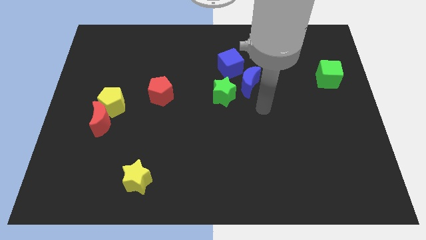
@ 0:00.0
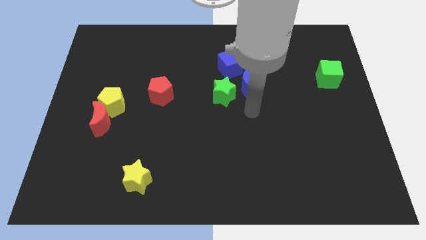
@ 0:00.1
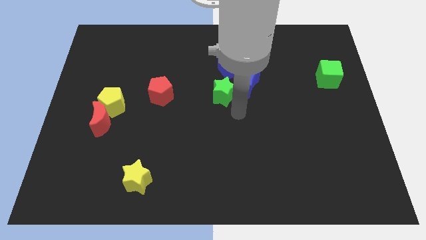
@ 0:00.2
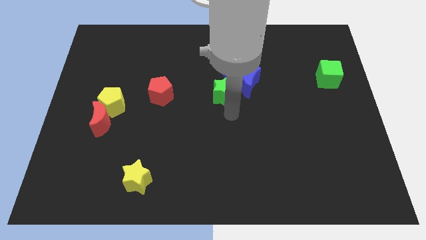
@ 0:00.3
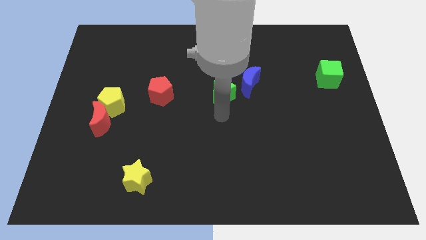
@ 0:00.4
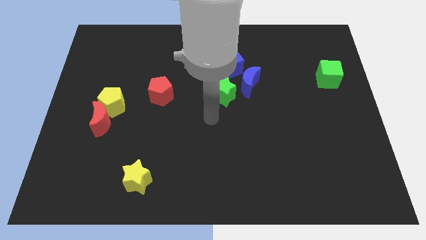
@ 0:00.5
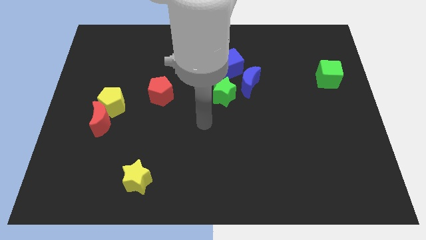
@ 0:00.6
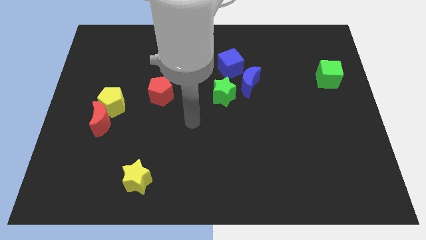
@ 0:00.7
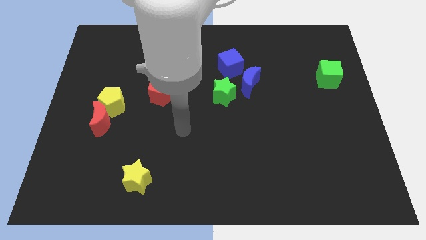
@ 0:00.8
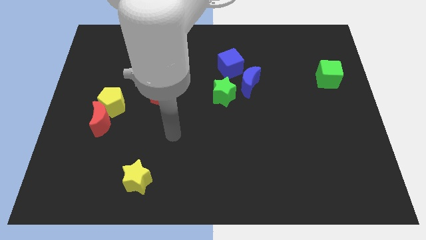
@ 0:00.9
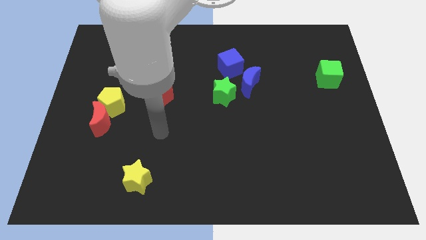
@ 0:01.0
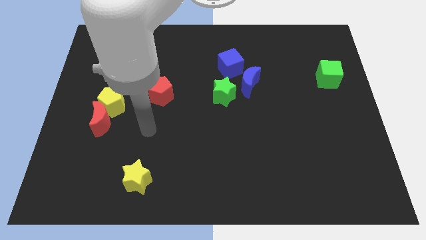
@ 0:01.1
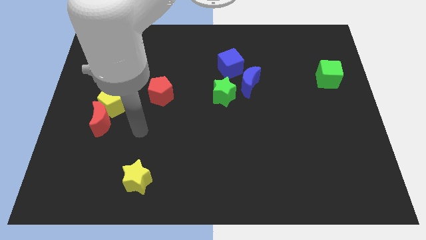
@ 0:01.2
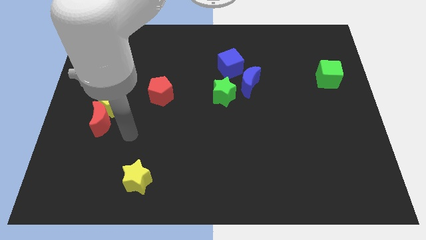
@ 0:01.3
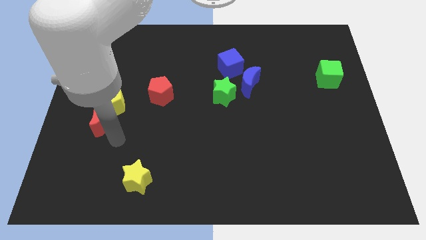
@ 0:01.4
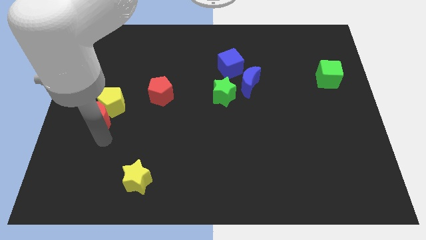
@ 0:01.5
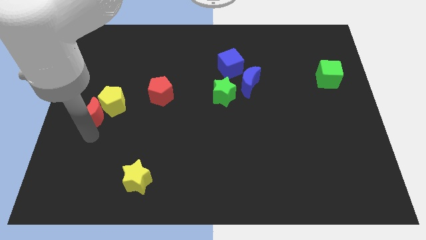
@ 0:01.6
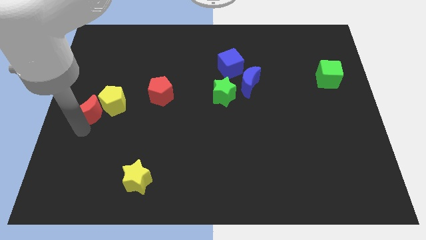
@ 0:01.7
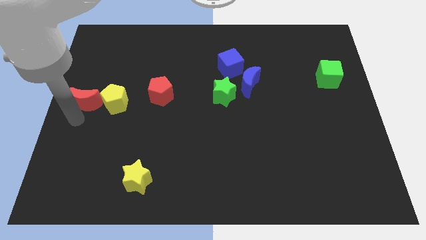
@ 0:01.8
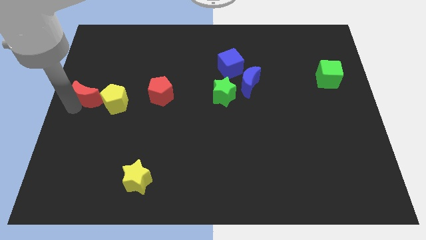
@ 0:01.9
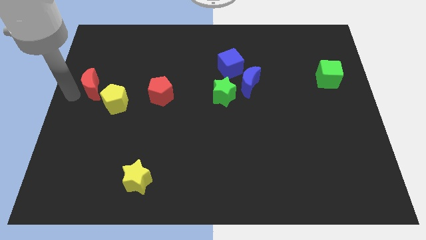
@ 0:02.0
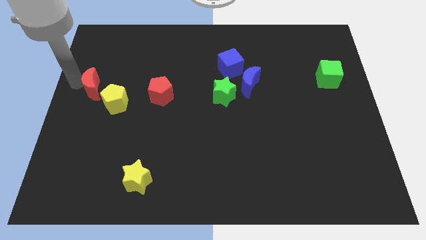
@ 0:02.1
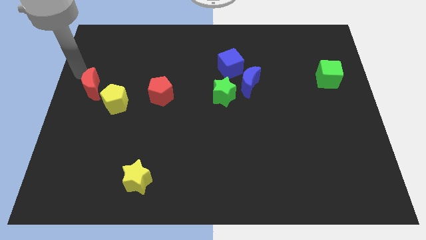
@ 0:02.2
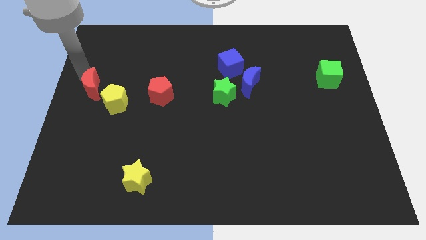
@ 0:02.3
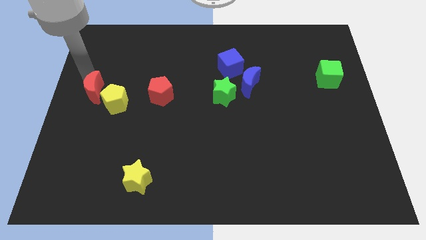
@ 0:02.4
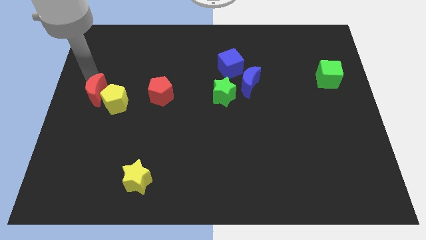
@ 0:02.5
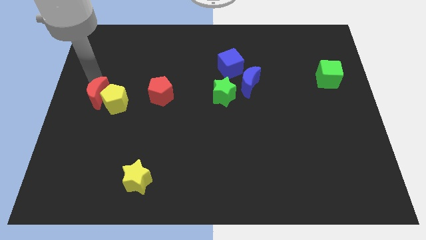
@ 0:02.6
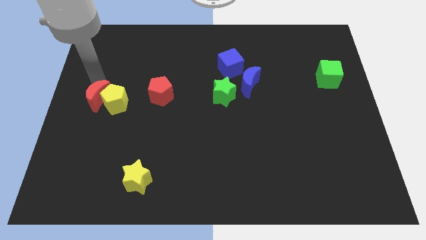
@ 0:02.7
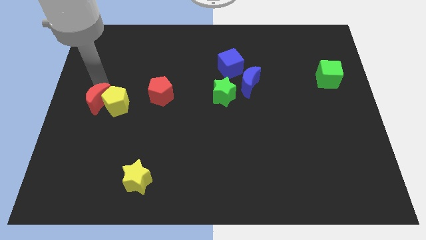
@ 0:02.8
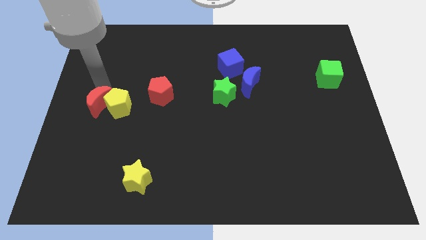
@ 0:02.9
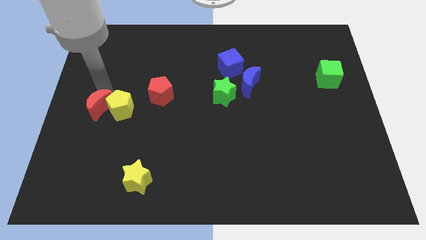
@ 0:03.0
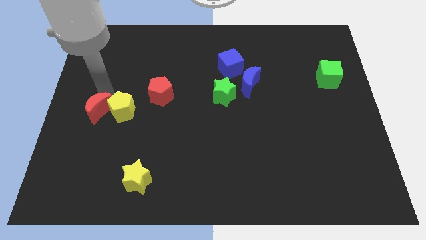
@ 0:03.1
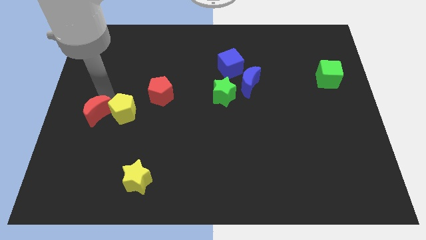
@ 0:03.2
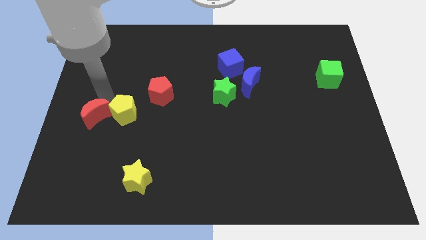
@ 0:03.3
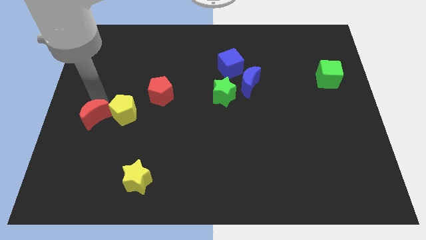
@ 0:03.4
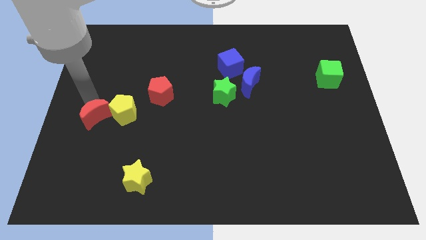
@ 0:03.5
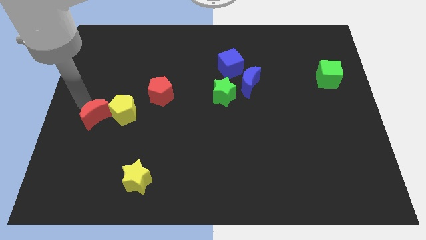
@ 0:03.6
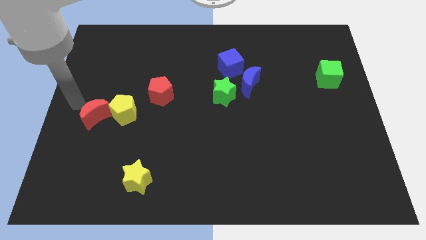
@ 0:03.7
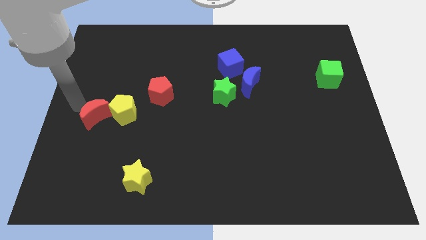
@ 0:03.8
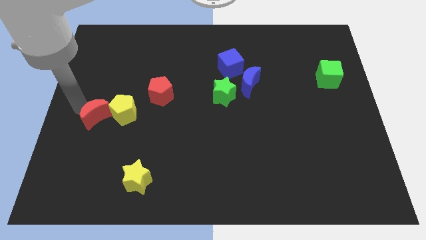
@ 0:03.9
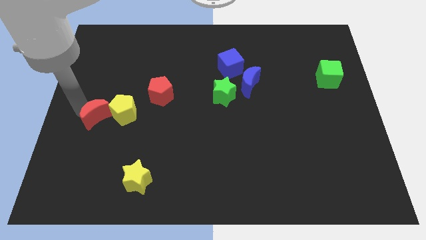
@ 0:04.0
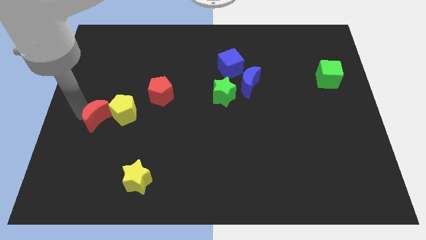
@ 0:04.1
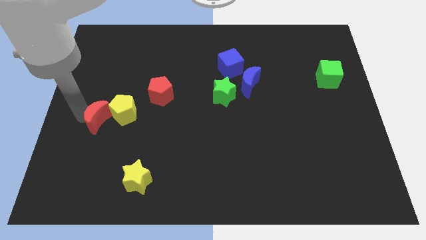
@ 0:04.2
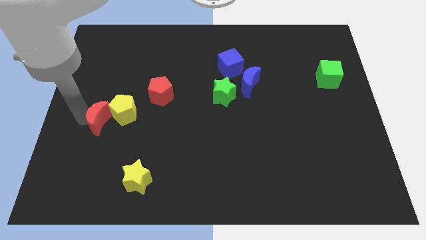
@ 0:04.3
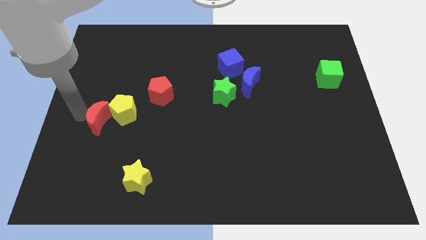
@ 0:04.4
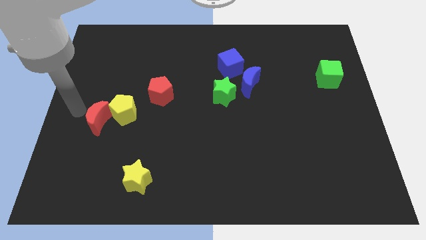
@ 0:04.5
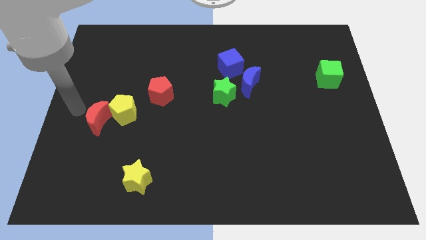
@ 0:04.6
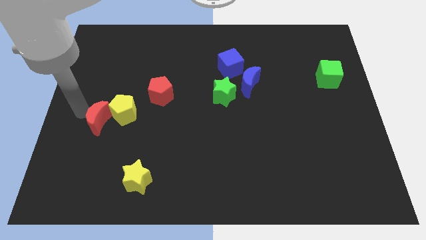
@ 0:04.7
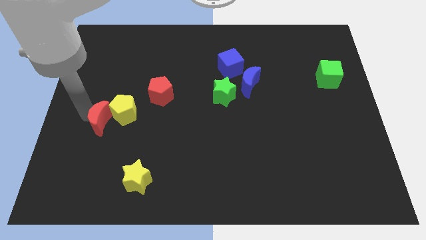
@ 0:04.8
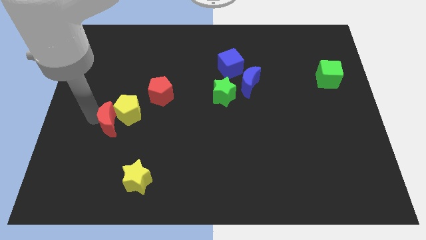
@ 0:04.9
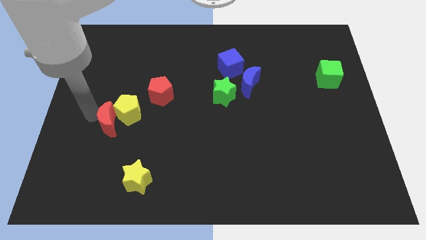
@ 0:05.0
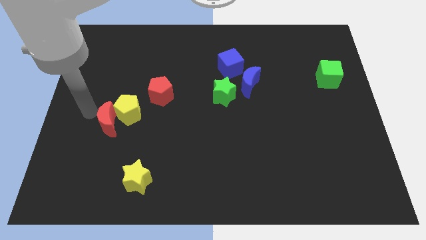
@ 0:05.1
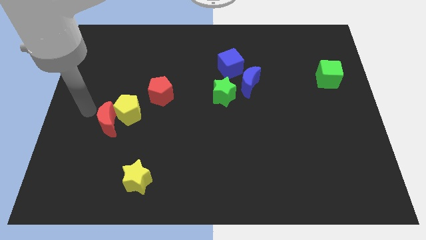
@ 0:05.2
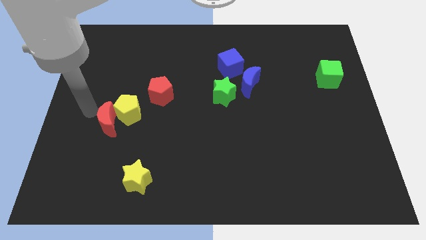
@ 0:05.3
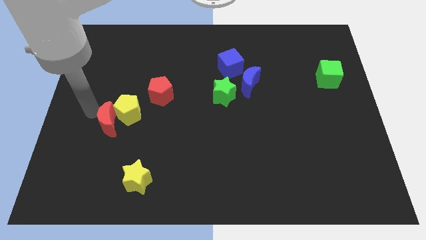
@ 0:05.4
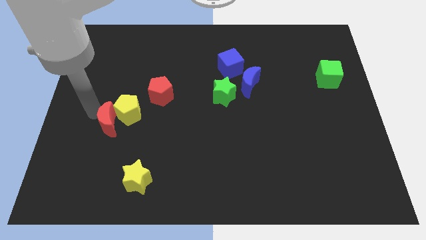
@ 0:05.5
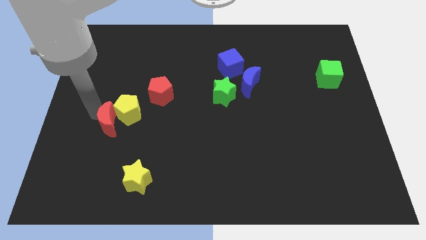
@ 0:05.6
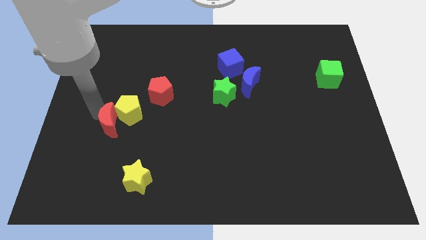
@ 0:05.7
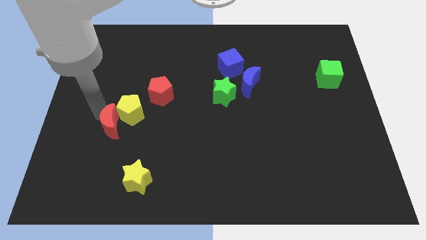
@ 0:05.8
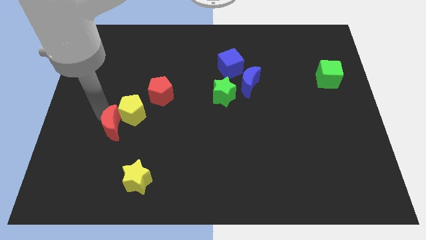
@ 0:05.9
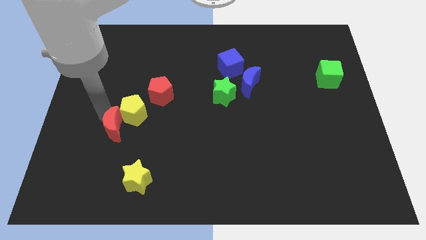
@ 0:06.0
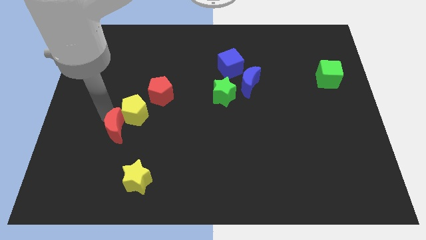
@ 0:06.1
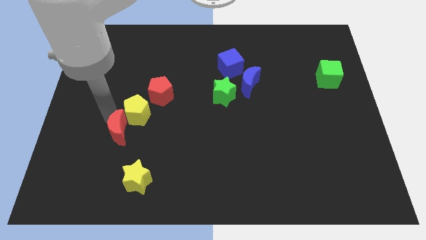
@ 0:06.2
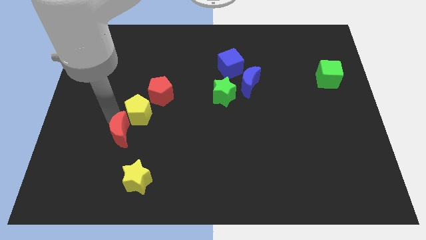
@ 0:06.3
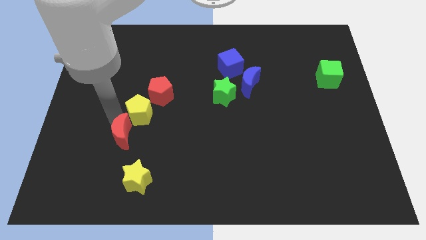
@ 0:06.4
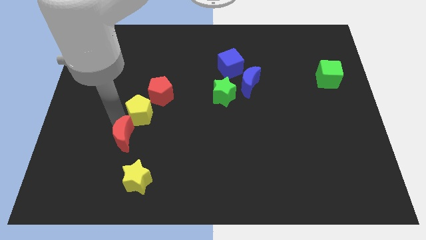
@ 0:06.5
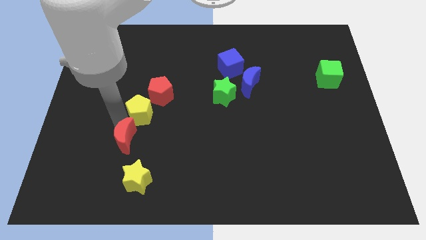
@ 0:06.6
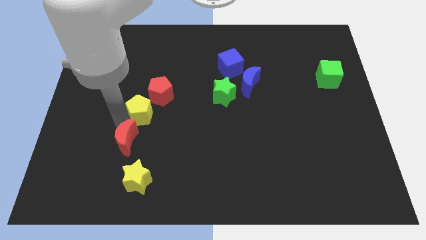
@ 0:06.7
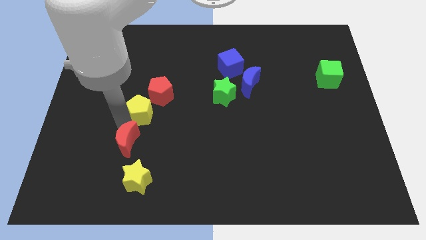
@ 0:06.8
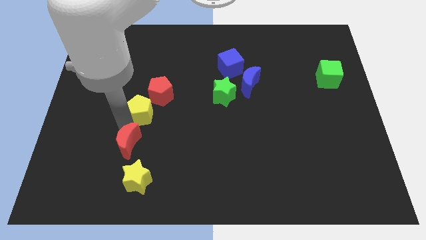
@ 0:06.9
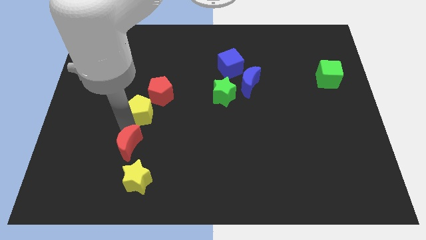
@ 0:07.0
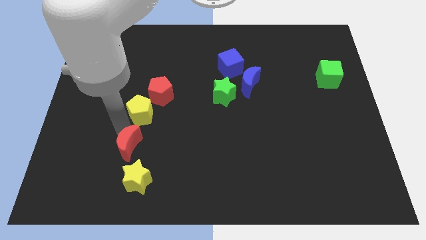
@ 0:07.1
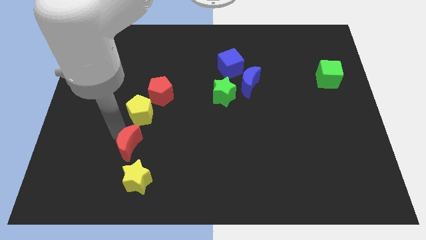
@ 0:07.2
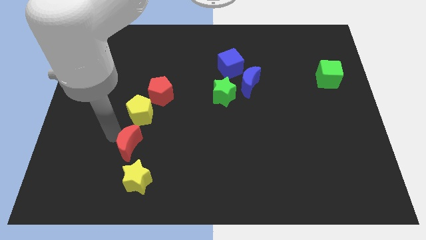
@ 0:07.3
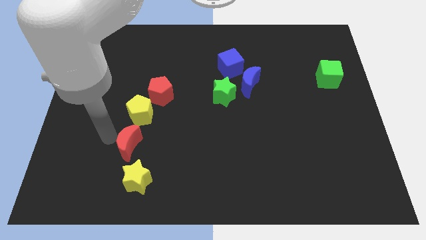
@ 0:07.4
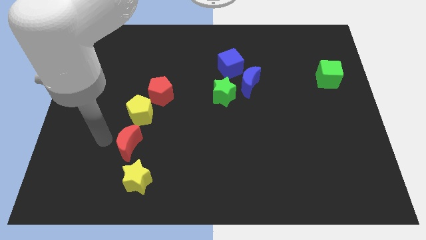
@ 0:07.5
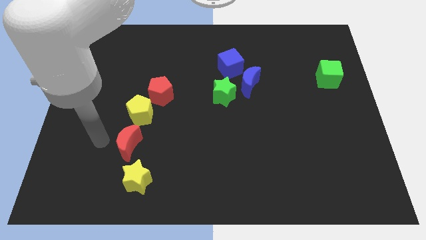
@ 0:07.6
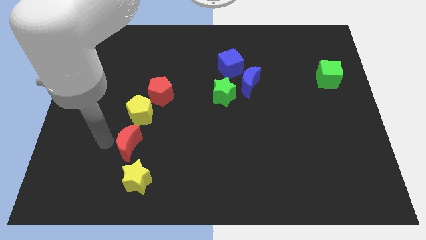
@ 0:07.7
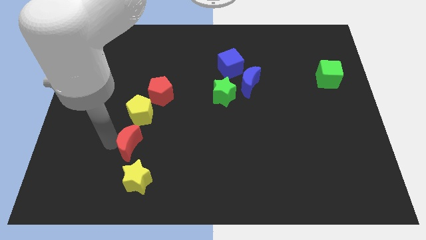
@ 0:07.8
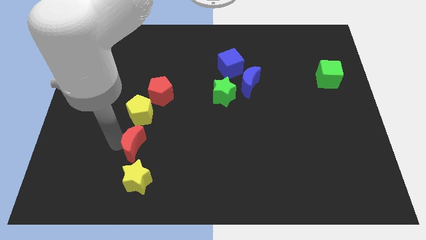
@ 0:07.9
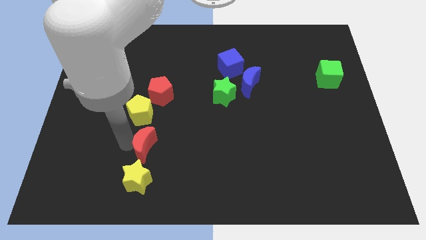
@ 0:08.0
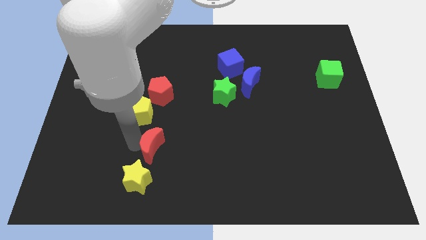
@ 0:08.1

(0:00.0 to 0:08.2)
slide the red moon diagonally up and to the right of the yellow star
